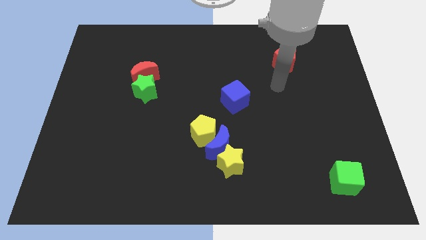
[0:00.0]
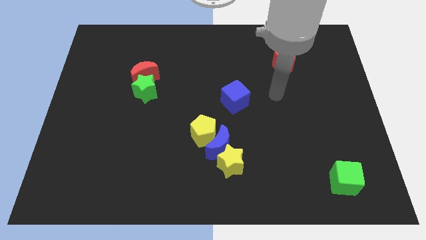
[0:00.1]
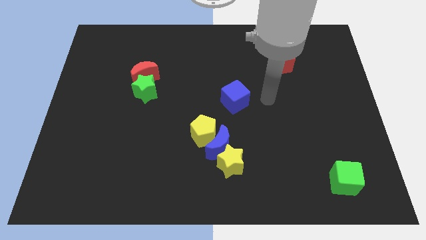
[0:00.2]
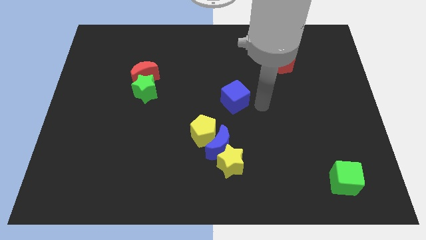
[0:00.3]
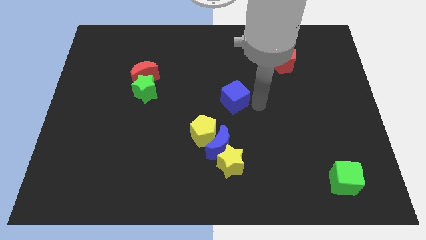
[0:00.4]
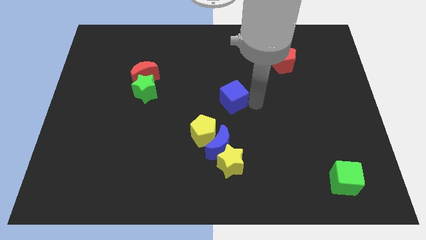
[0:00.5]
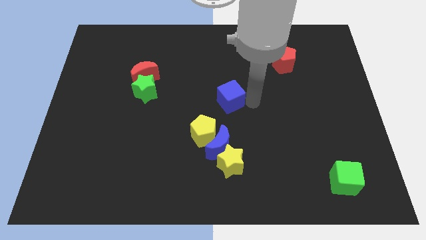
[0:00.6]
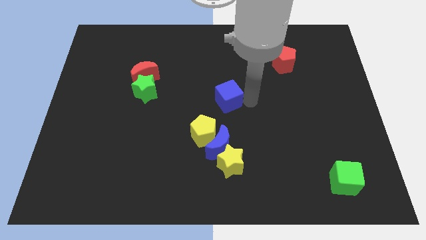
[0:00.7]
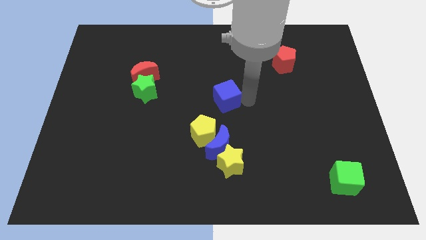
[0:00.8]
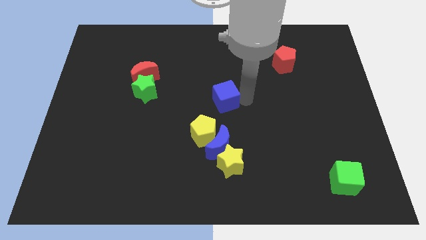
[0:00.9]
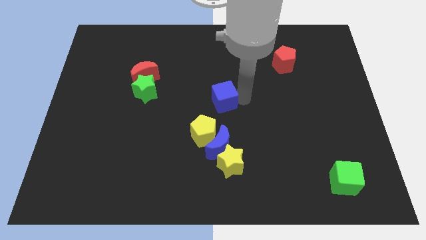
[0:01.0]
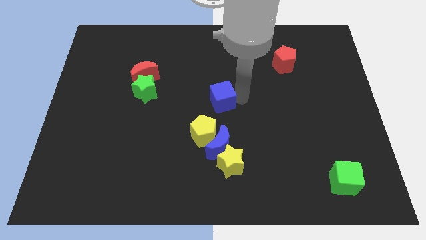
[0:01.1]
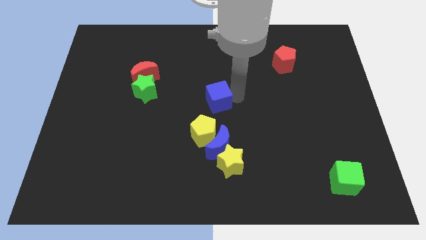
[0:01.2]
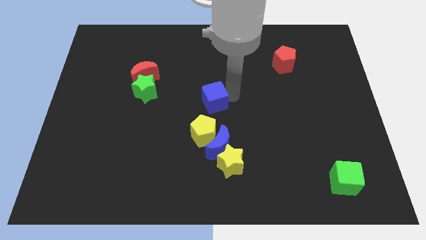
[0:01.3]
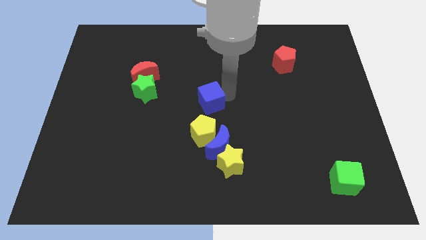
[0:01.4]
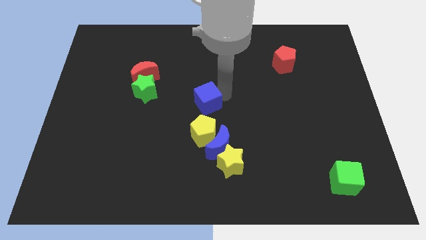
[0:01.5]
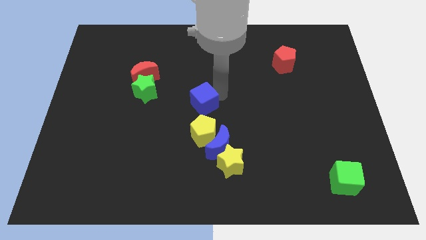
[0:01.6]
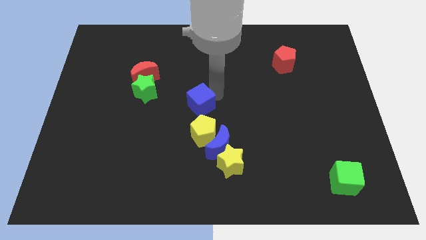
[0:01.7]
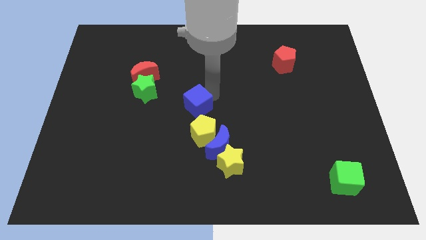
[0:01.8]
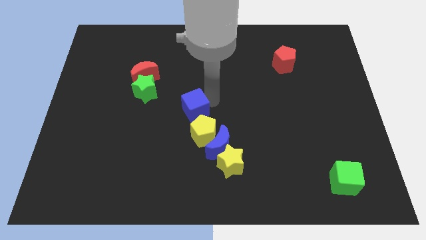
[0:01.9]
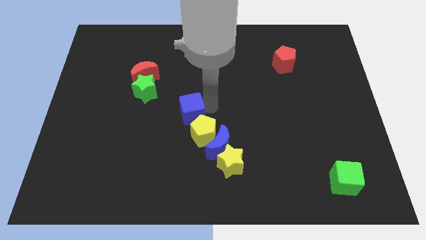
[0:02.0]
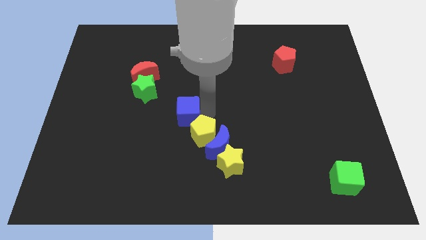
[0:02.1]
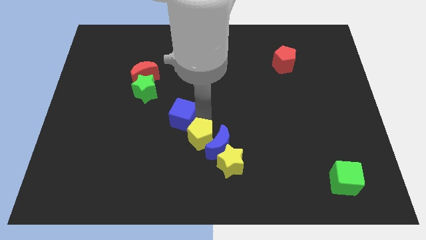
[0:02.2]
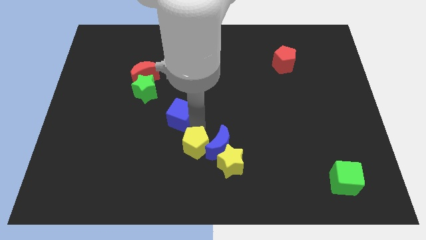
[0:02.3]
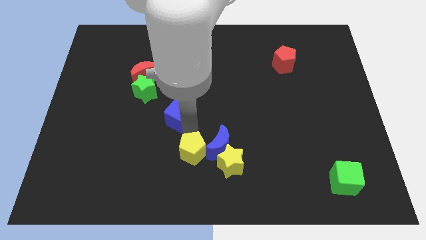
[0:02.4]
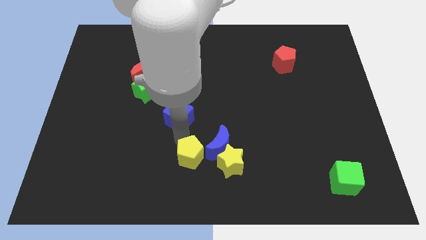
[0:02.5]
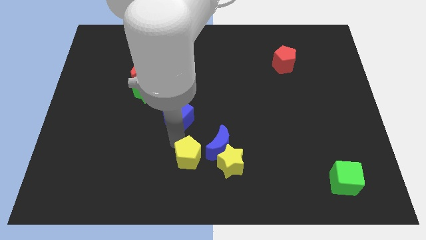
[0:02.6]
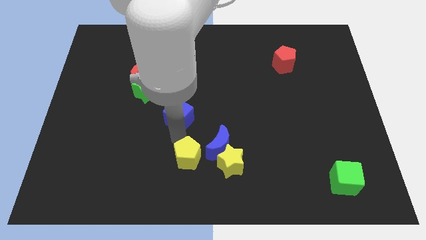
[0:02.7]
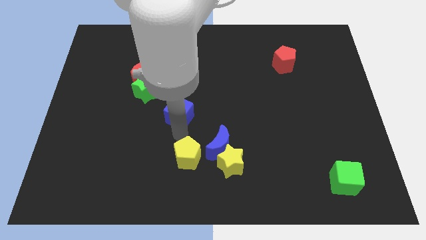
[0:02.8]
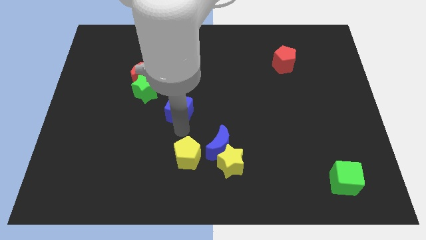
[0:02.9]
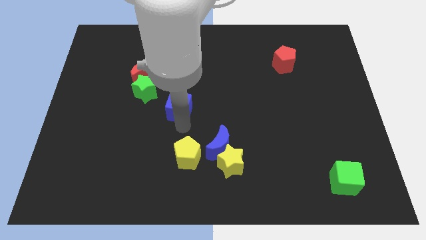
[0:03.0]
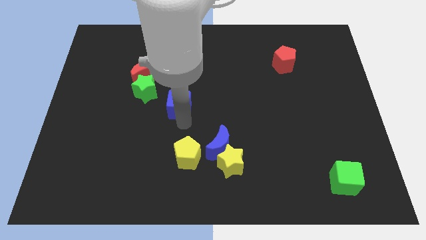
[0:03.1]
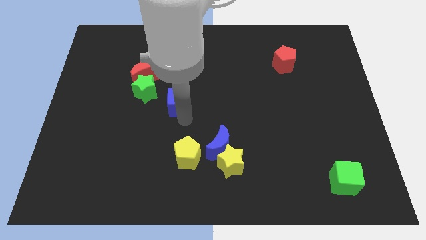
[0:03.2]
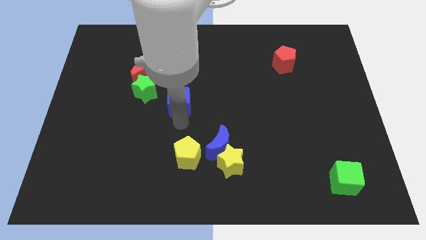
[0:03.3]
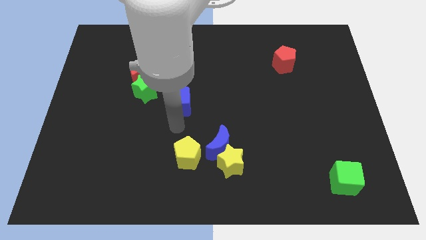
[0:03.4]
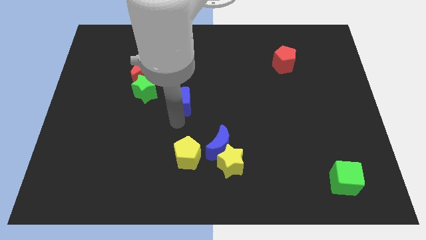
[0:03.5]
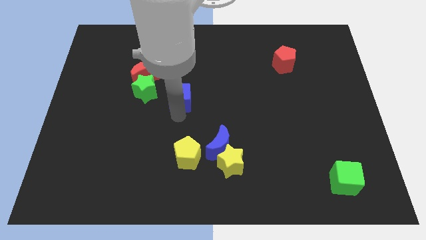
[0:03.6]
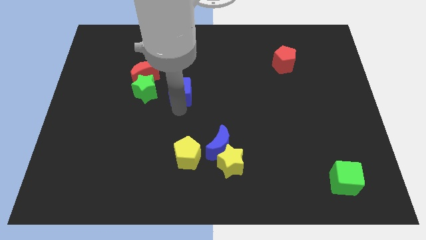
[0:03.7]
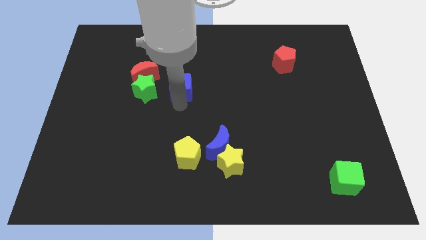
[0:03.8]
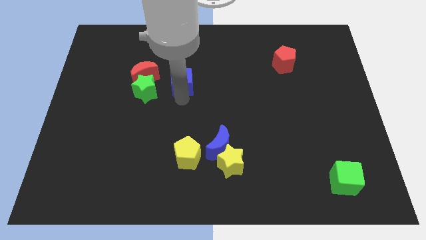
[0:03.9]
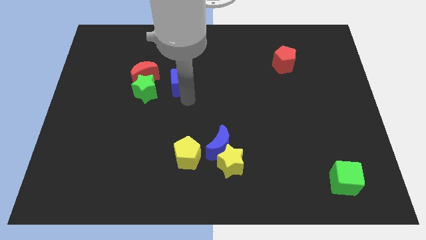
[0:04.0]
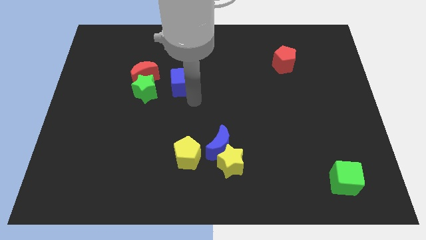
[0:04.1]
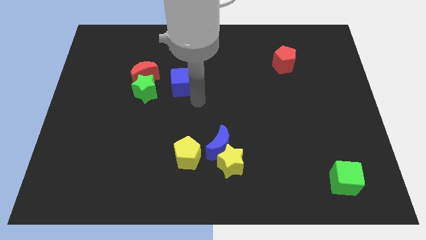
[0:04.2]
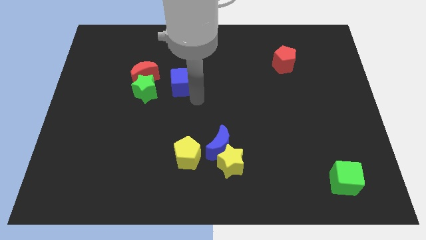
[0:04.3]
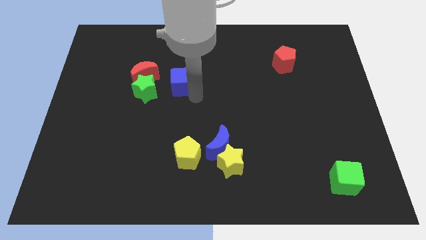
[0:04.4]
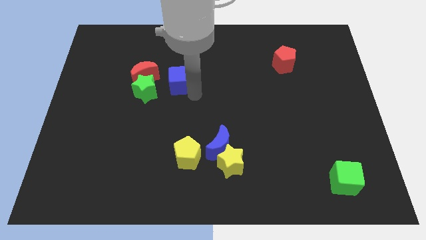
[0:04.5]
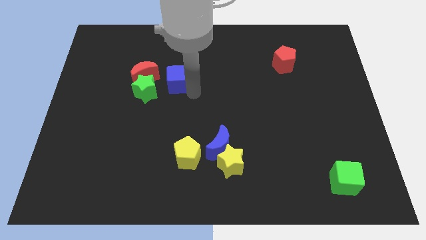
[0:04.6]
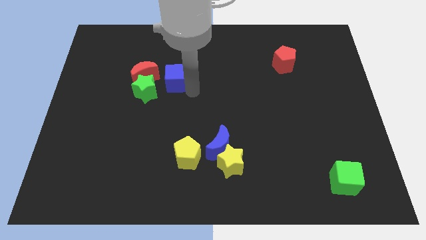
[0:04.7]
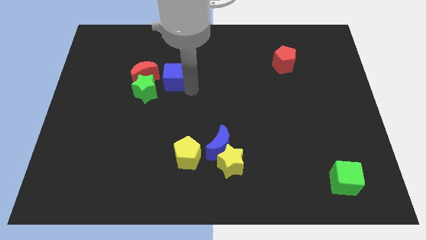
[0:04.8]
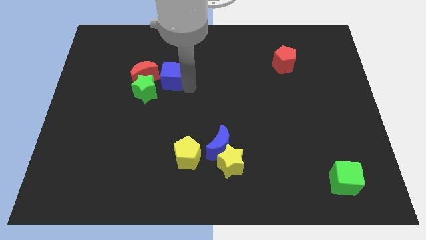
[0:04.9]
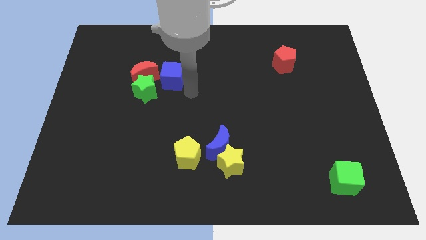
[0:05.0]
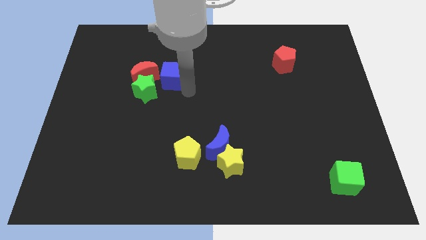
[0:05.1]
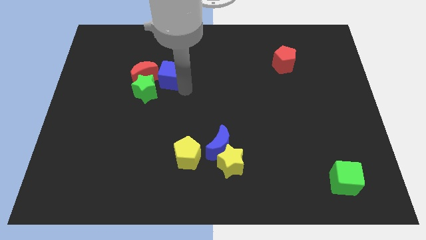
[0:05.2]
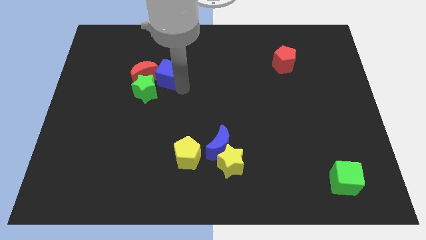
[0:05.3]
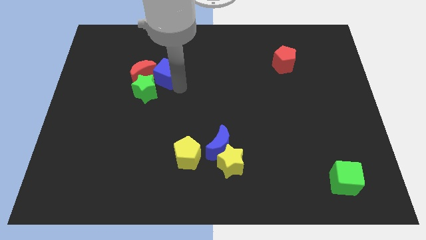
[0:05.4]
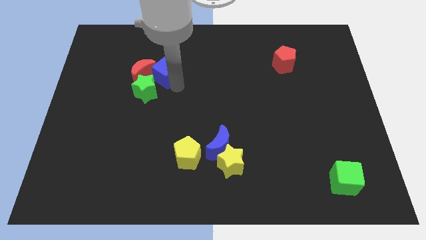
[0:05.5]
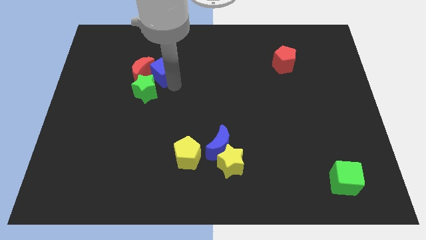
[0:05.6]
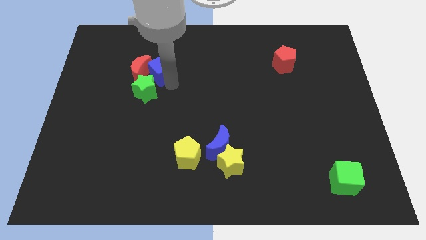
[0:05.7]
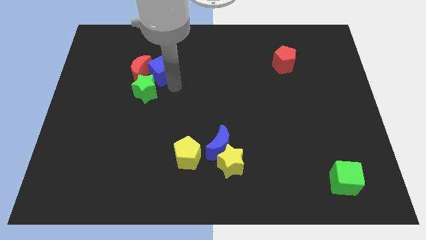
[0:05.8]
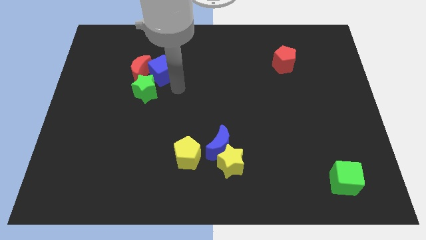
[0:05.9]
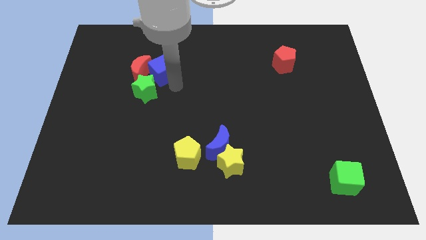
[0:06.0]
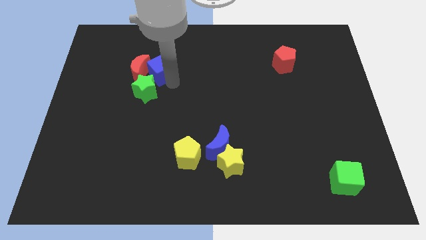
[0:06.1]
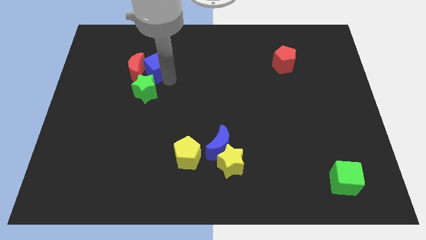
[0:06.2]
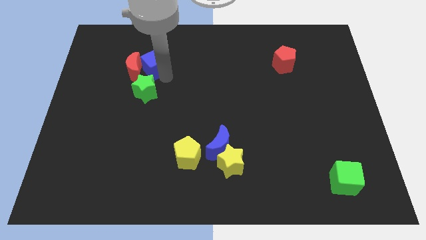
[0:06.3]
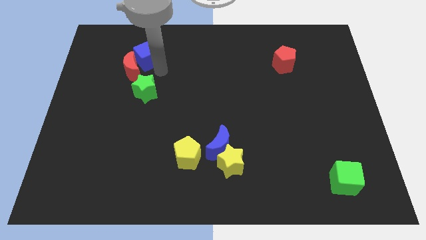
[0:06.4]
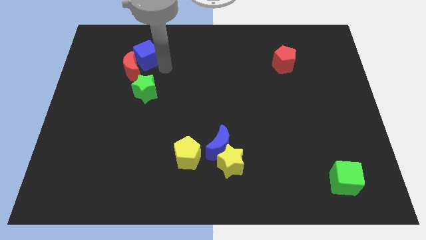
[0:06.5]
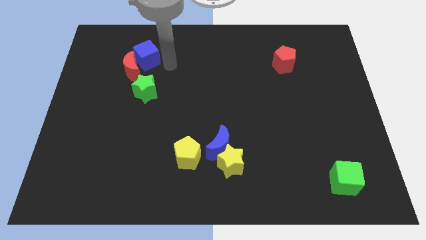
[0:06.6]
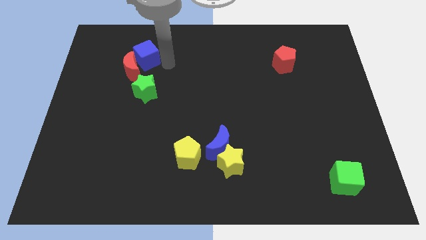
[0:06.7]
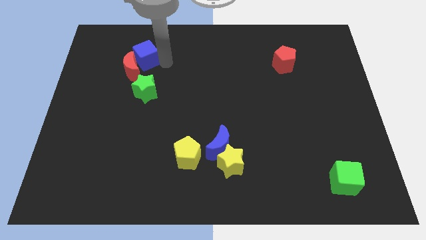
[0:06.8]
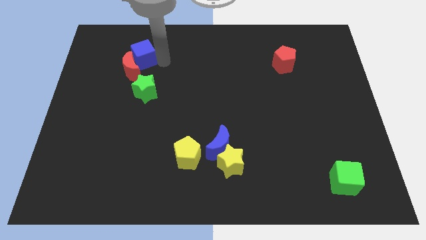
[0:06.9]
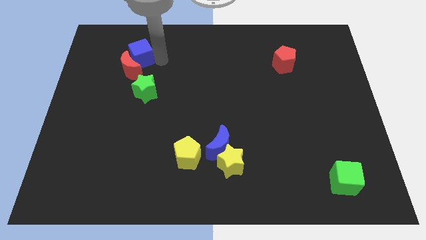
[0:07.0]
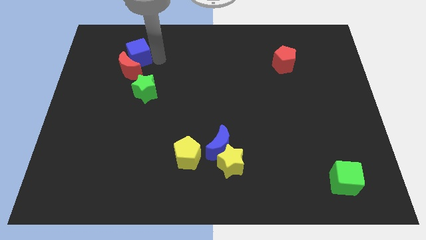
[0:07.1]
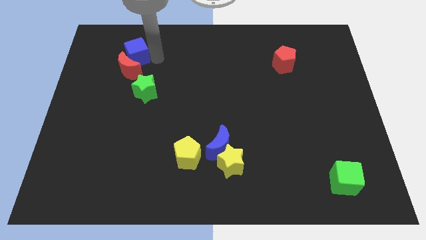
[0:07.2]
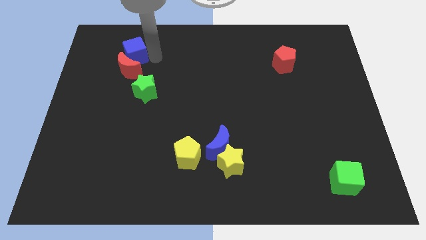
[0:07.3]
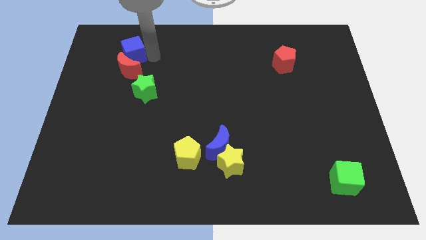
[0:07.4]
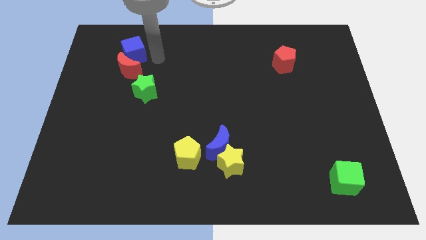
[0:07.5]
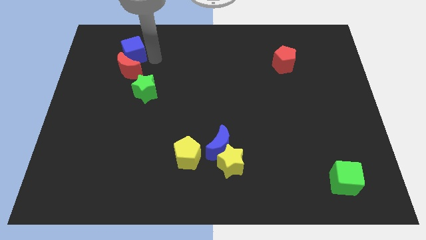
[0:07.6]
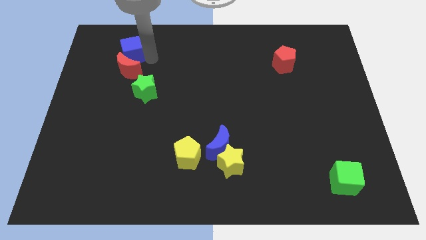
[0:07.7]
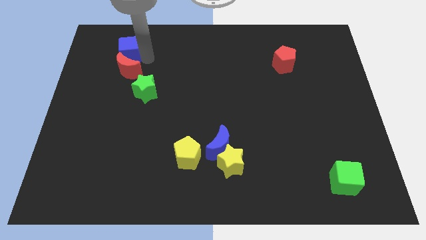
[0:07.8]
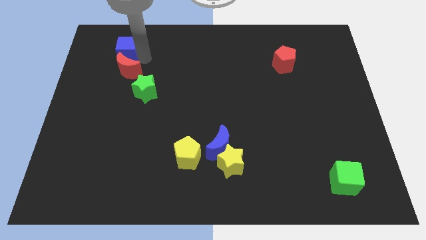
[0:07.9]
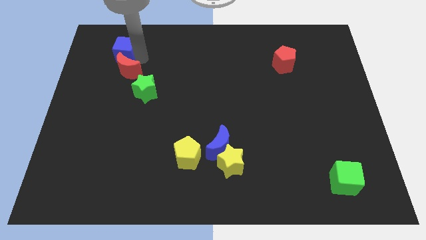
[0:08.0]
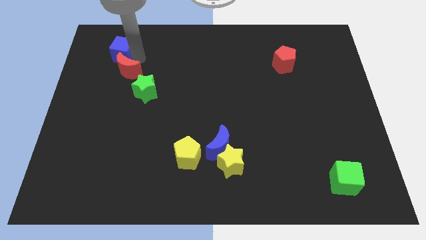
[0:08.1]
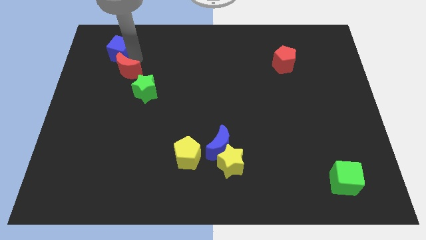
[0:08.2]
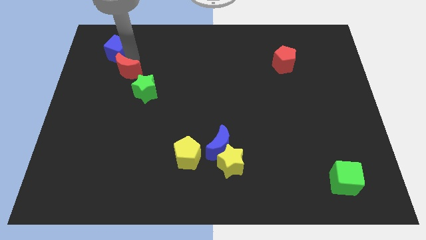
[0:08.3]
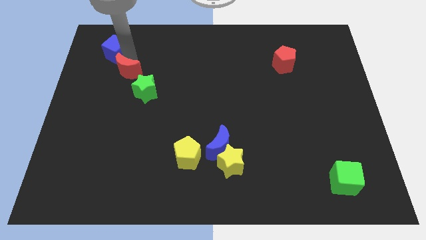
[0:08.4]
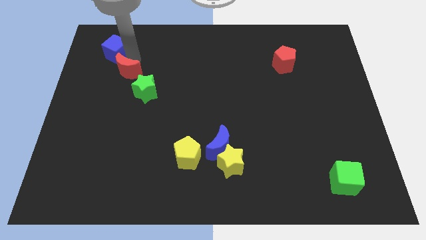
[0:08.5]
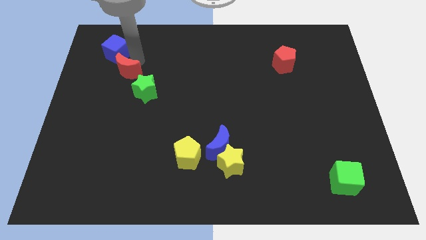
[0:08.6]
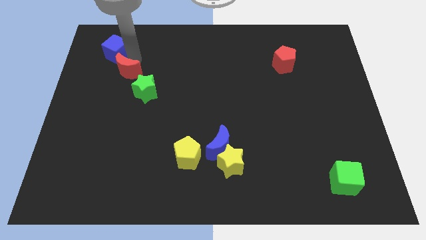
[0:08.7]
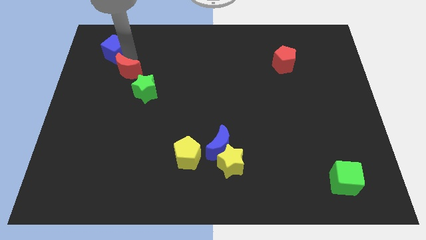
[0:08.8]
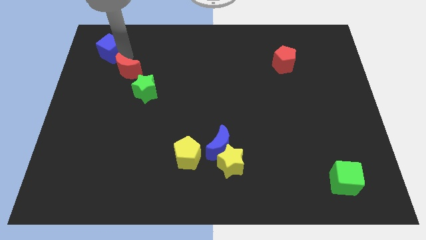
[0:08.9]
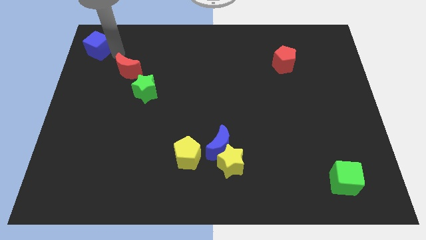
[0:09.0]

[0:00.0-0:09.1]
move the blue cube to the top left of the board
